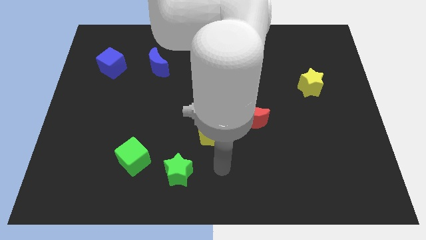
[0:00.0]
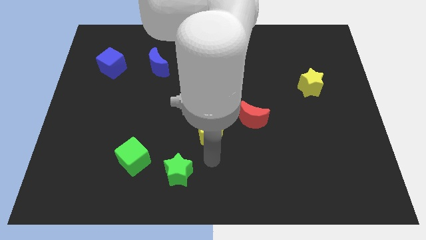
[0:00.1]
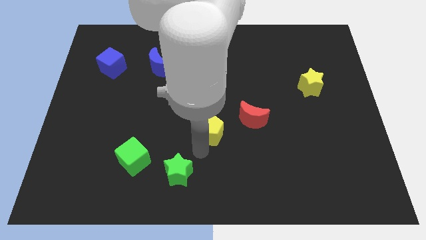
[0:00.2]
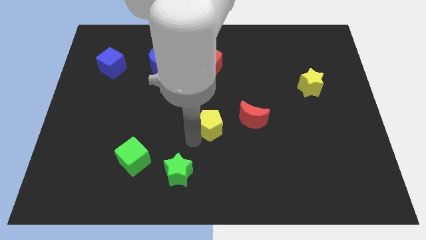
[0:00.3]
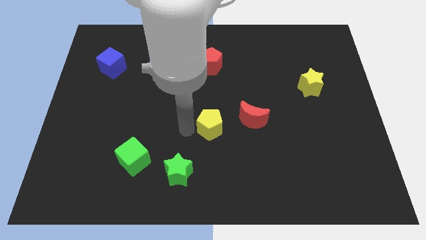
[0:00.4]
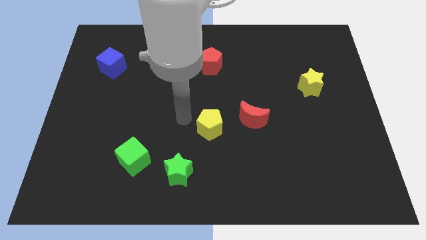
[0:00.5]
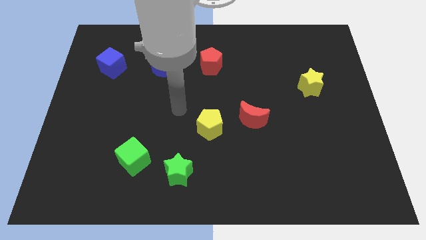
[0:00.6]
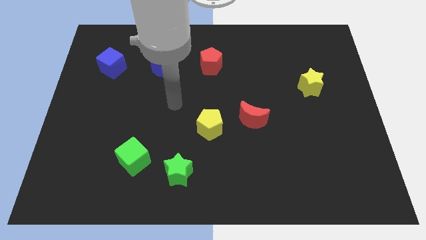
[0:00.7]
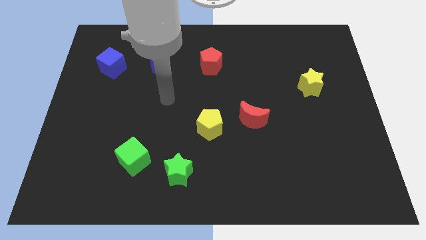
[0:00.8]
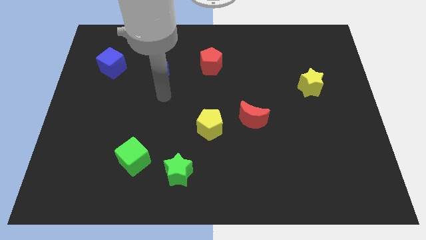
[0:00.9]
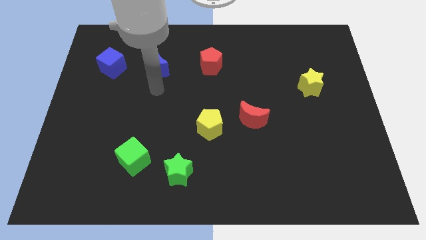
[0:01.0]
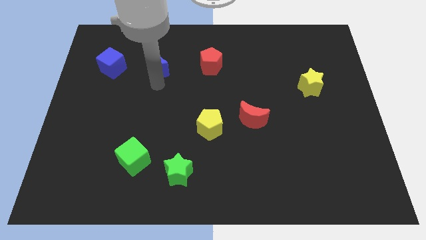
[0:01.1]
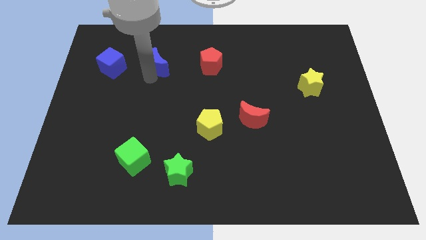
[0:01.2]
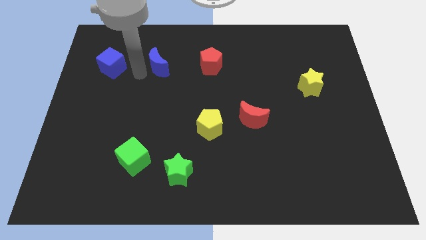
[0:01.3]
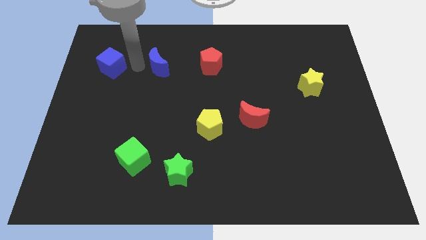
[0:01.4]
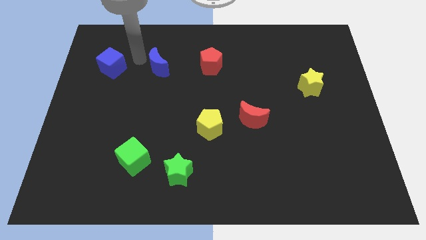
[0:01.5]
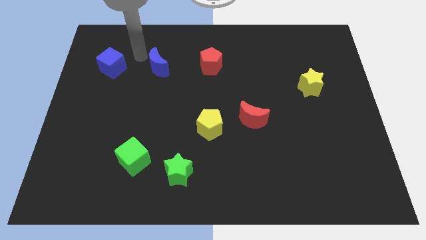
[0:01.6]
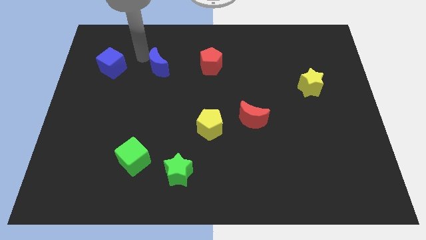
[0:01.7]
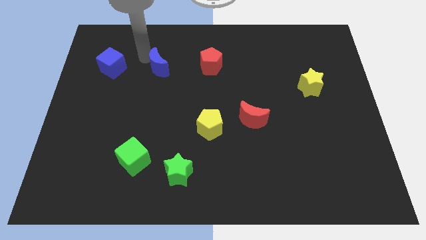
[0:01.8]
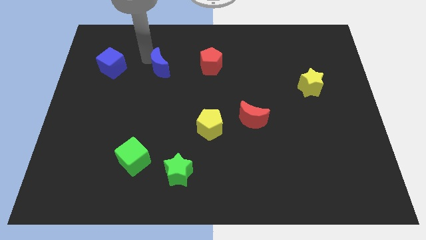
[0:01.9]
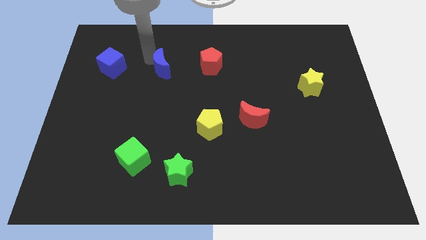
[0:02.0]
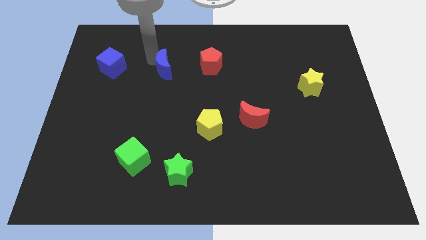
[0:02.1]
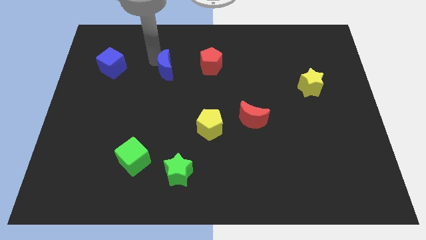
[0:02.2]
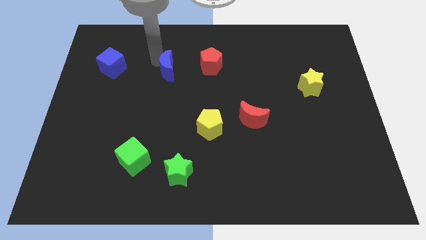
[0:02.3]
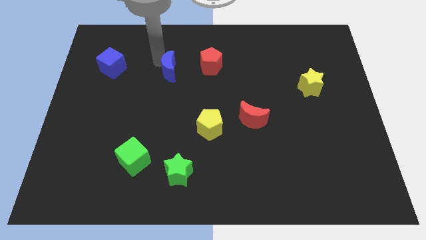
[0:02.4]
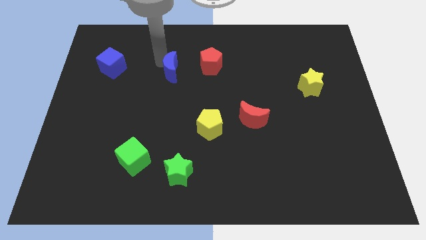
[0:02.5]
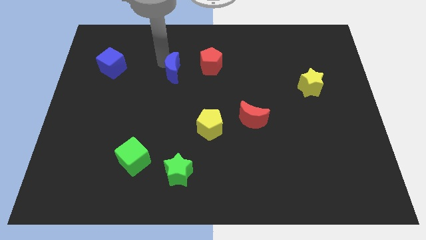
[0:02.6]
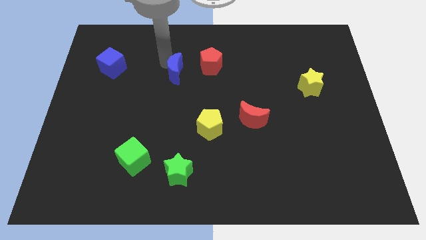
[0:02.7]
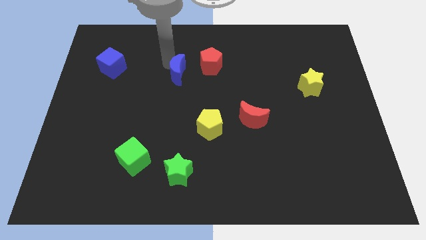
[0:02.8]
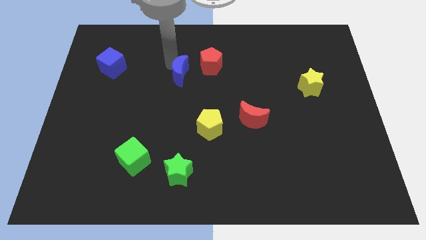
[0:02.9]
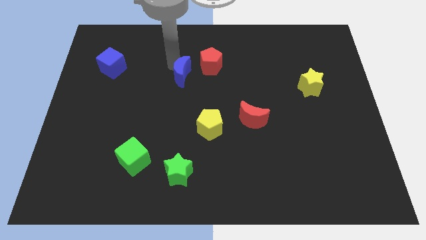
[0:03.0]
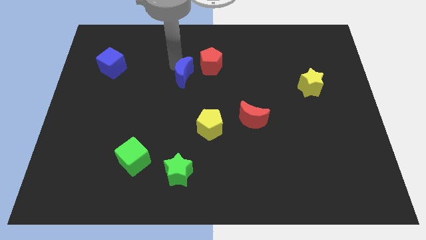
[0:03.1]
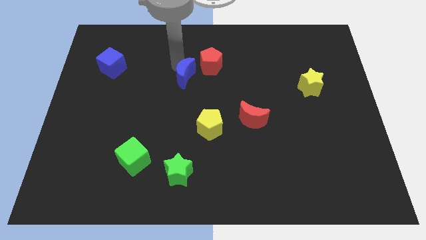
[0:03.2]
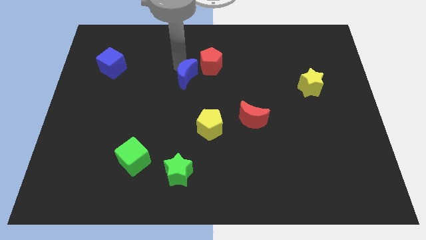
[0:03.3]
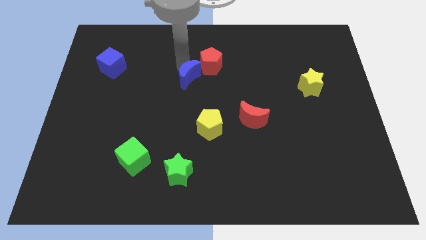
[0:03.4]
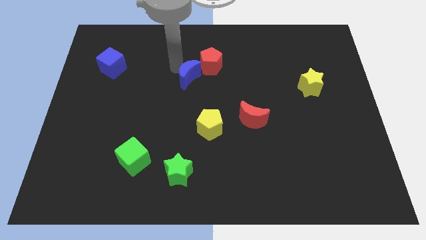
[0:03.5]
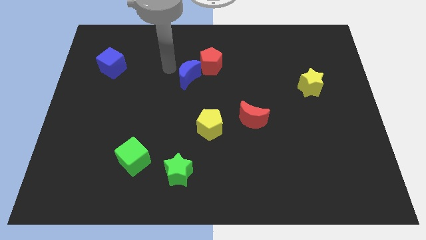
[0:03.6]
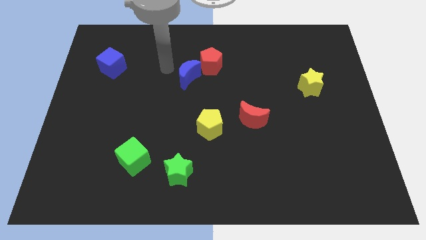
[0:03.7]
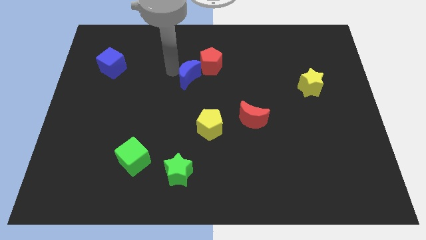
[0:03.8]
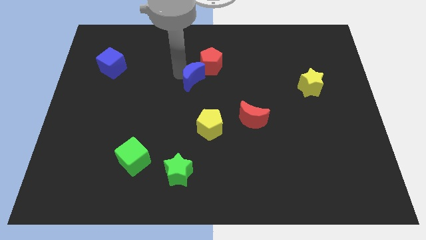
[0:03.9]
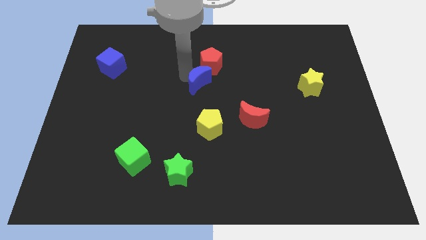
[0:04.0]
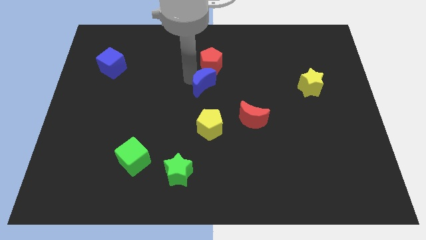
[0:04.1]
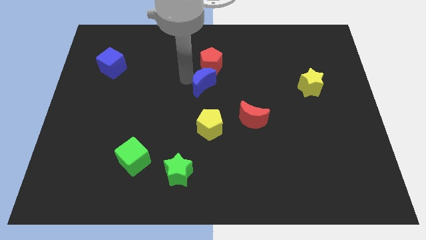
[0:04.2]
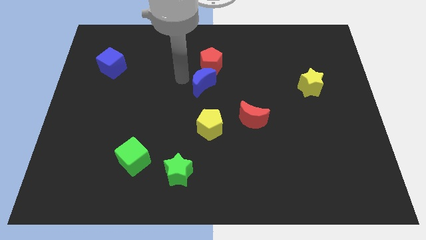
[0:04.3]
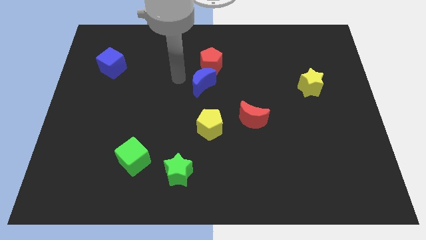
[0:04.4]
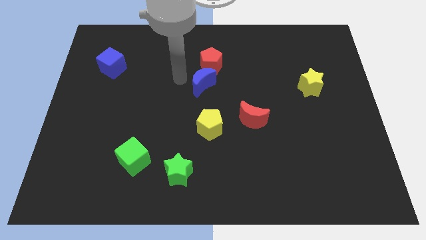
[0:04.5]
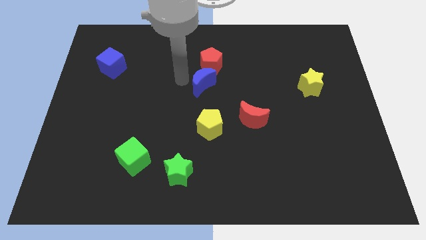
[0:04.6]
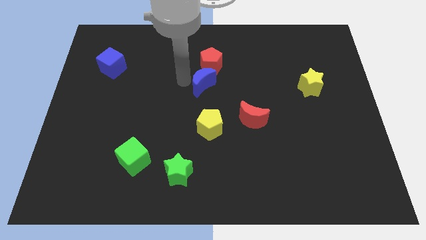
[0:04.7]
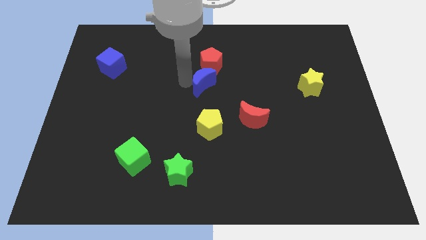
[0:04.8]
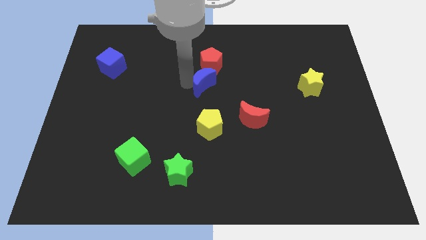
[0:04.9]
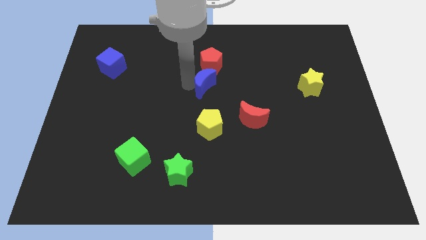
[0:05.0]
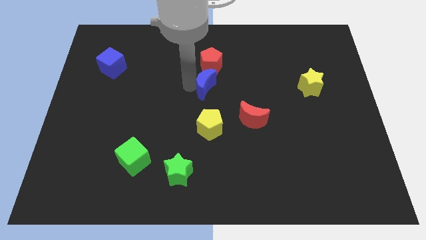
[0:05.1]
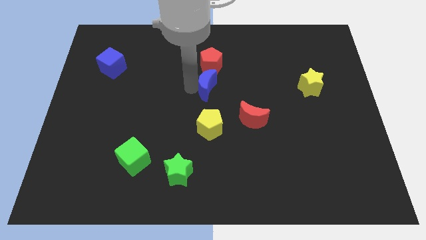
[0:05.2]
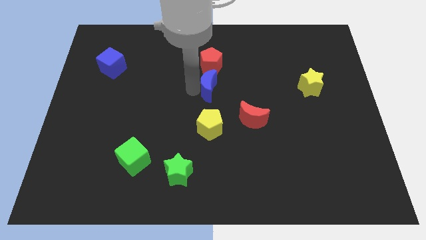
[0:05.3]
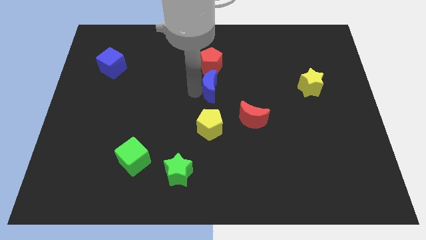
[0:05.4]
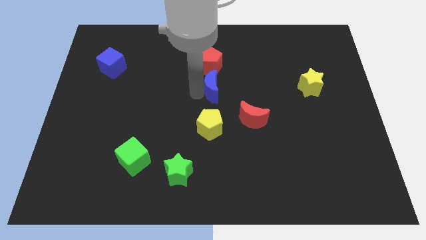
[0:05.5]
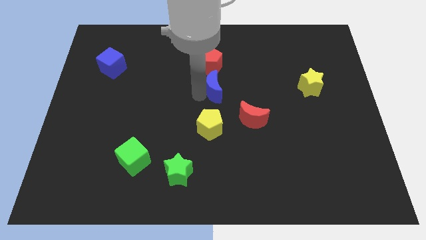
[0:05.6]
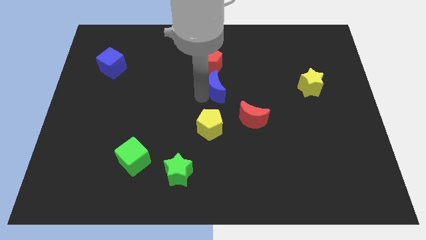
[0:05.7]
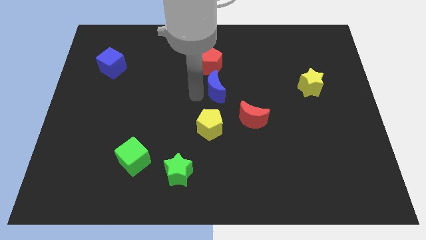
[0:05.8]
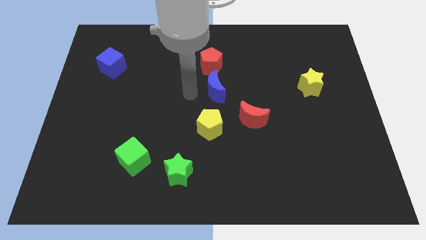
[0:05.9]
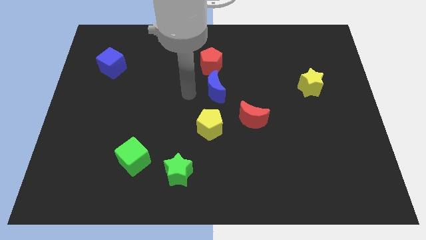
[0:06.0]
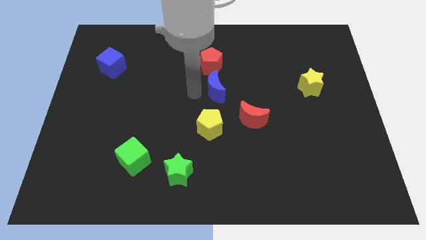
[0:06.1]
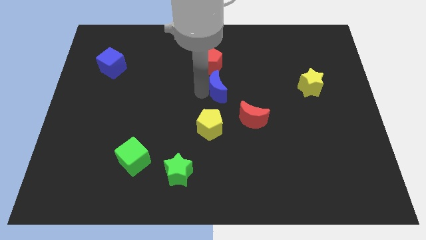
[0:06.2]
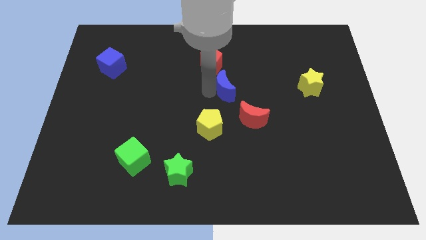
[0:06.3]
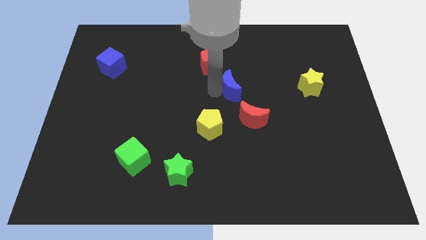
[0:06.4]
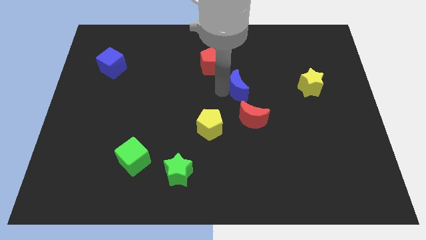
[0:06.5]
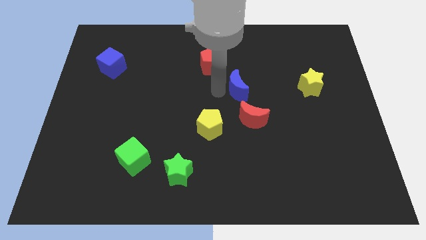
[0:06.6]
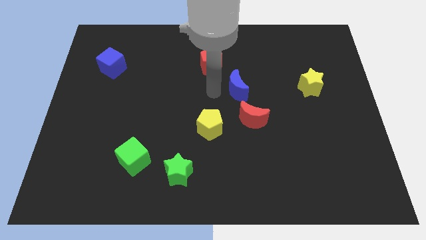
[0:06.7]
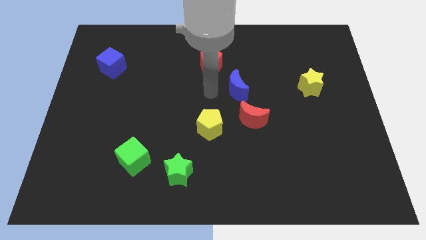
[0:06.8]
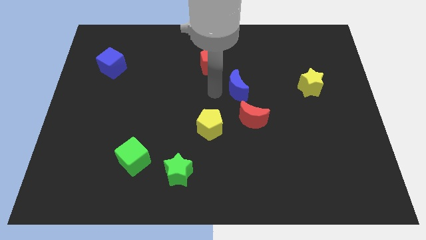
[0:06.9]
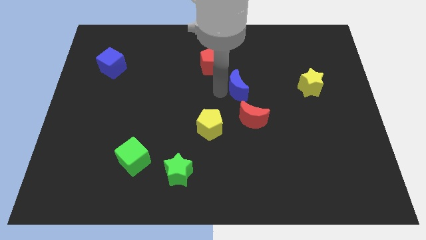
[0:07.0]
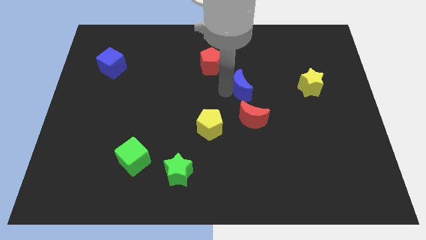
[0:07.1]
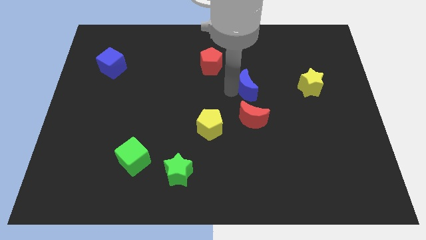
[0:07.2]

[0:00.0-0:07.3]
put the blue moon to the left side of the yellow star
